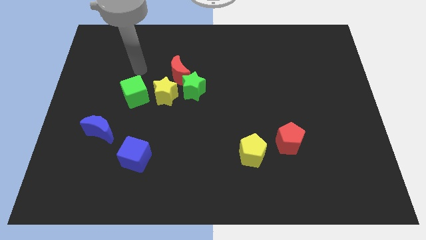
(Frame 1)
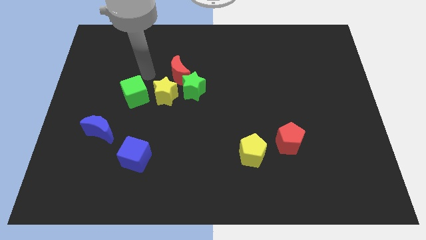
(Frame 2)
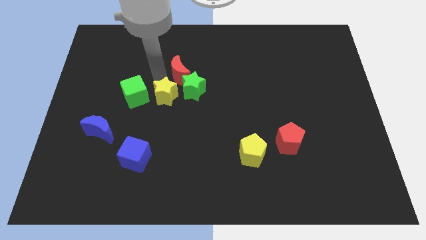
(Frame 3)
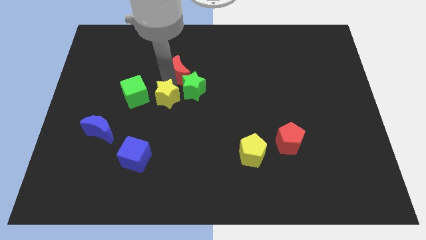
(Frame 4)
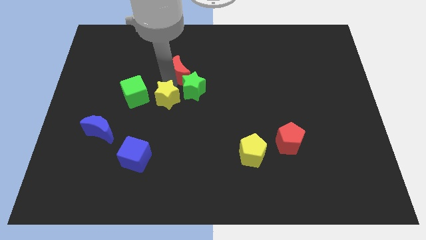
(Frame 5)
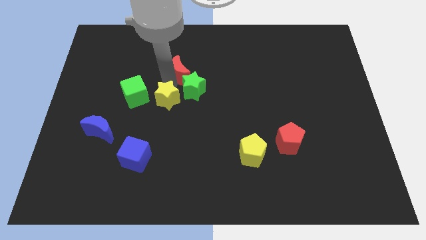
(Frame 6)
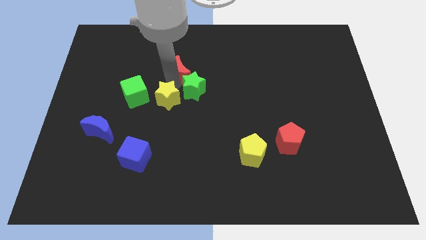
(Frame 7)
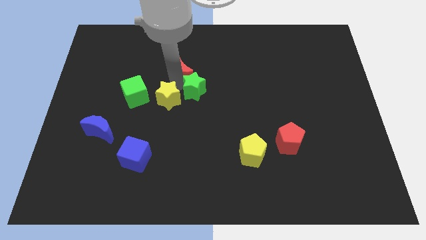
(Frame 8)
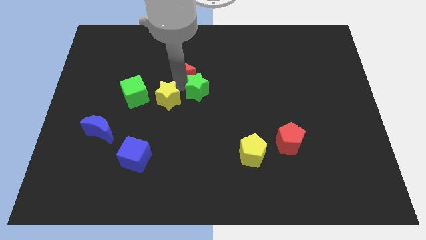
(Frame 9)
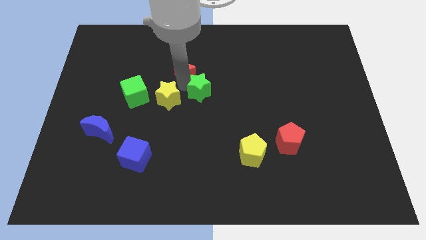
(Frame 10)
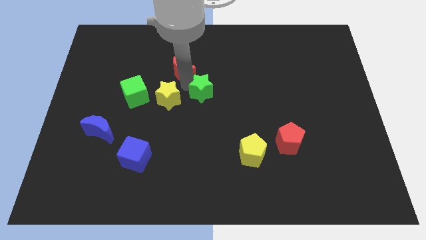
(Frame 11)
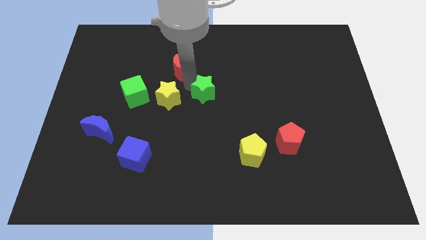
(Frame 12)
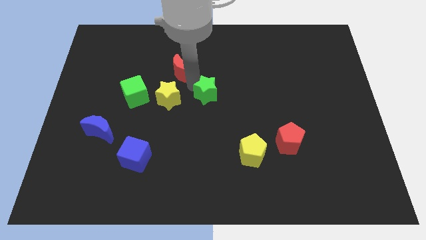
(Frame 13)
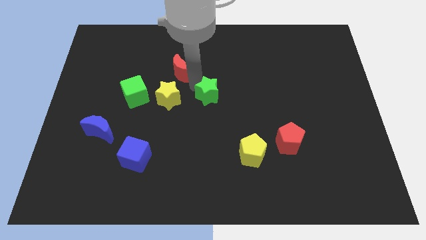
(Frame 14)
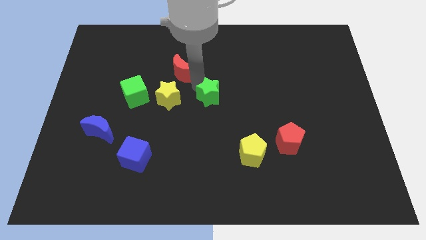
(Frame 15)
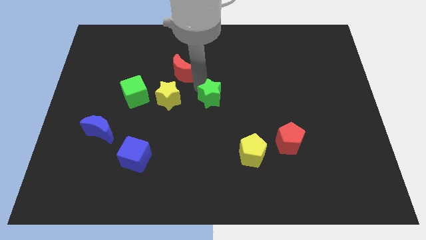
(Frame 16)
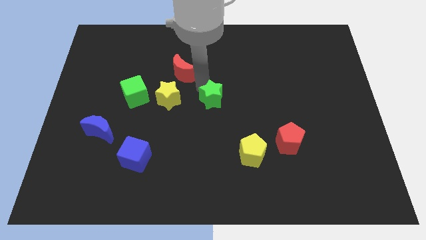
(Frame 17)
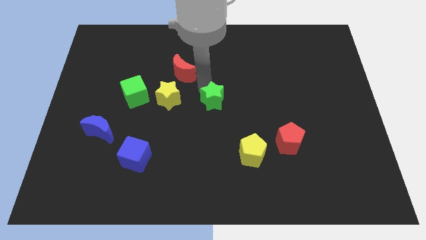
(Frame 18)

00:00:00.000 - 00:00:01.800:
pull the green star apart from the red moon and yellow star

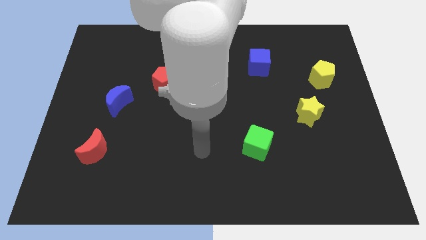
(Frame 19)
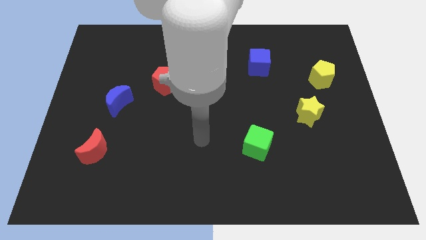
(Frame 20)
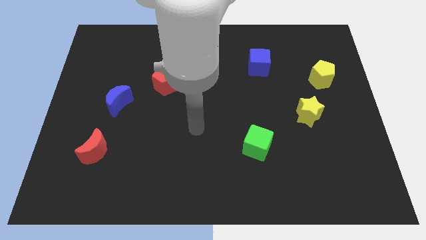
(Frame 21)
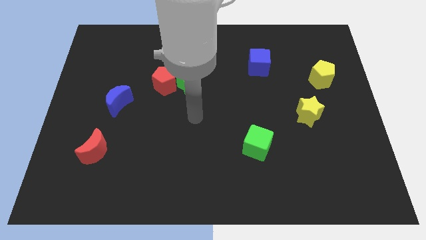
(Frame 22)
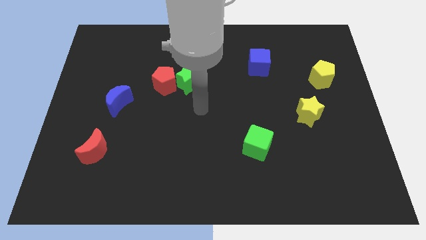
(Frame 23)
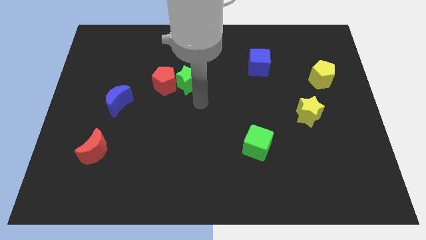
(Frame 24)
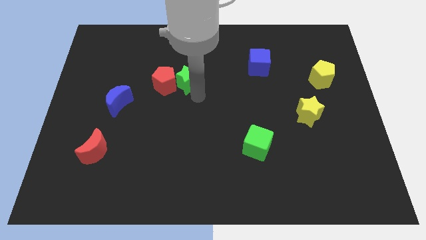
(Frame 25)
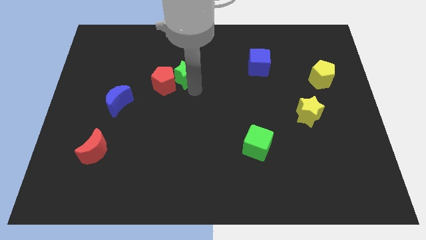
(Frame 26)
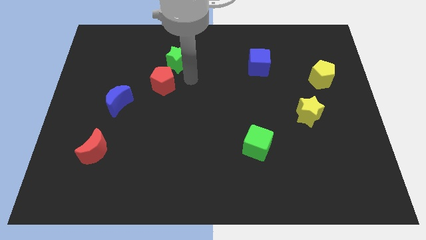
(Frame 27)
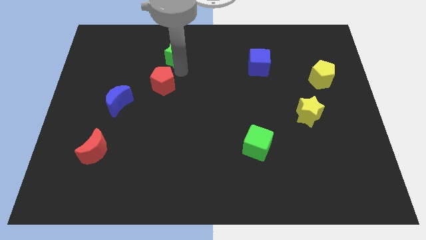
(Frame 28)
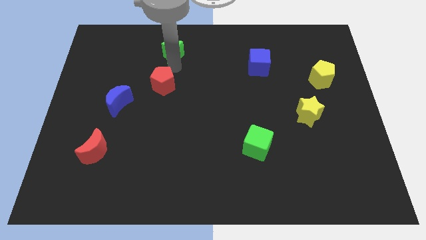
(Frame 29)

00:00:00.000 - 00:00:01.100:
separate the red pentagon from the green star

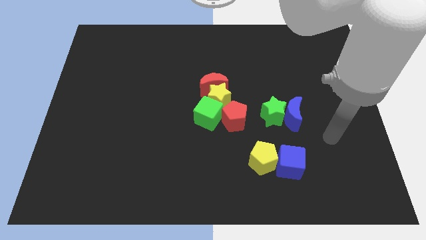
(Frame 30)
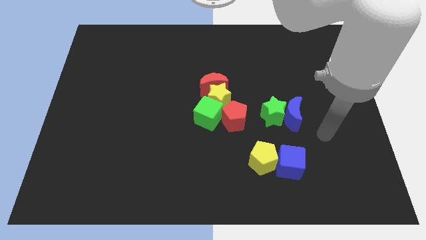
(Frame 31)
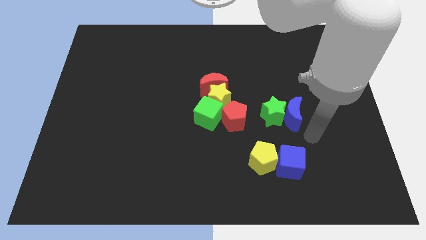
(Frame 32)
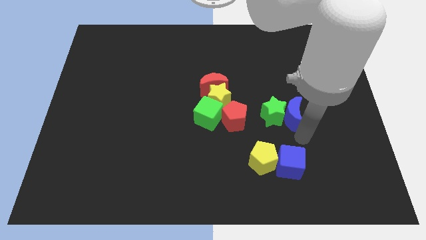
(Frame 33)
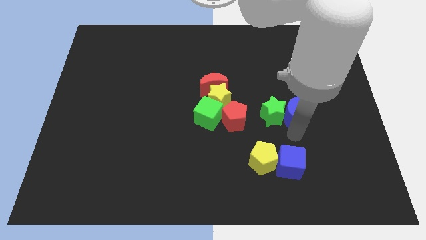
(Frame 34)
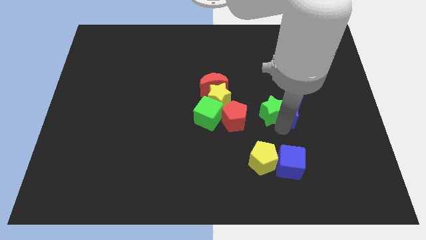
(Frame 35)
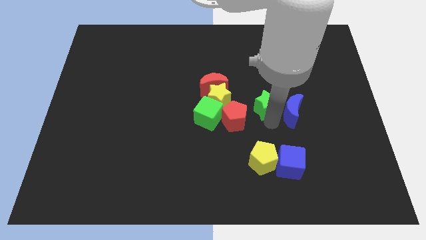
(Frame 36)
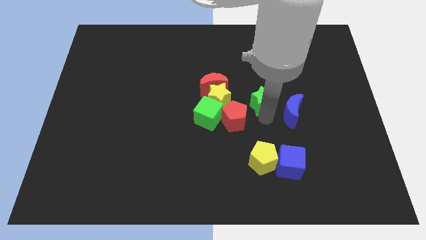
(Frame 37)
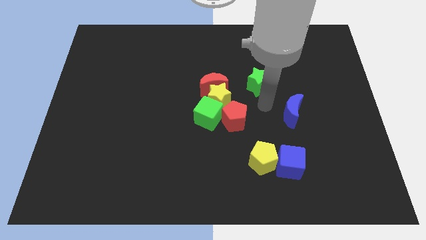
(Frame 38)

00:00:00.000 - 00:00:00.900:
pull the blue moon apart from the green star

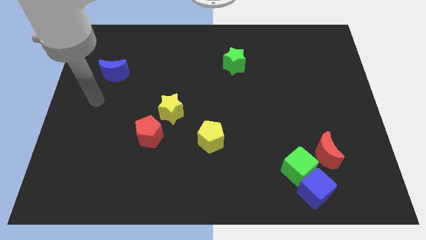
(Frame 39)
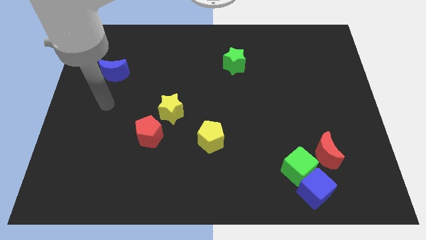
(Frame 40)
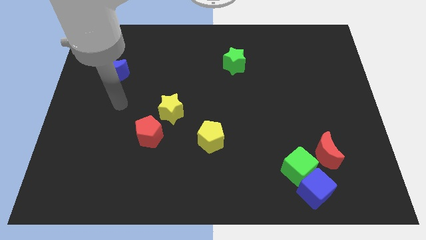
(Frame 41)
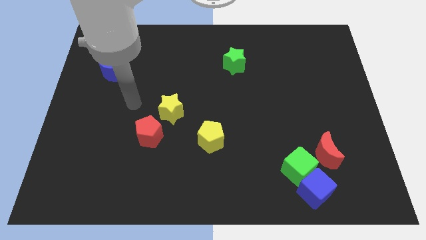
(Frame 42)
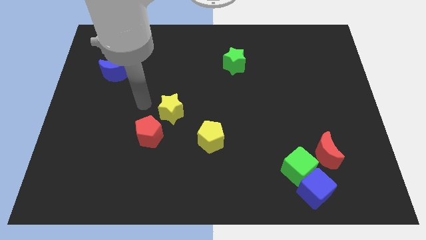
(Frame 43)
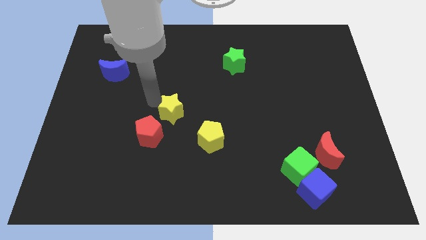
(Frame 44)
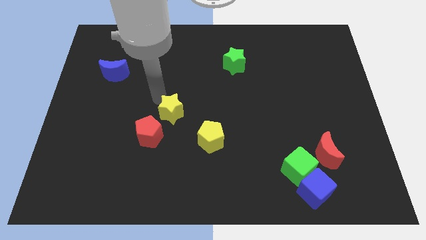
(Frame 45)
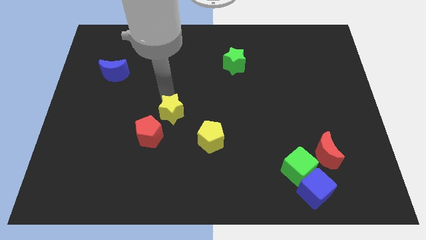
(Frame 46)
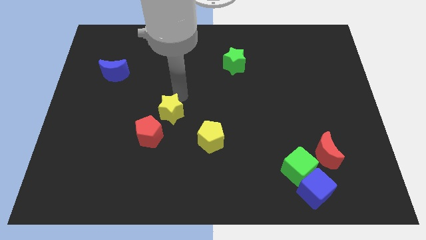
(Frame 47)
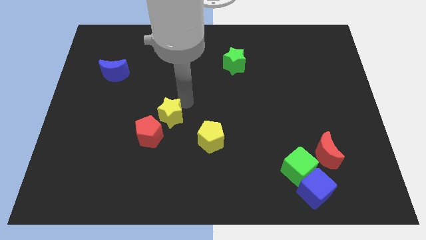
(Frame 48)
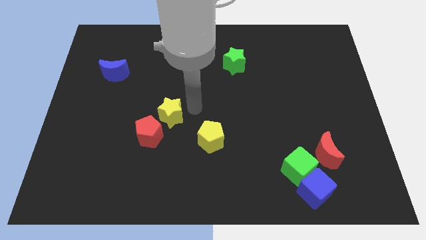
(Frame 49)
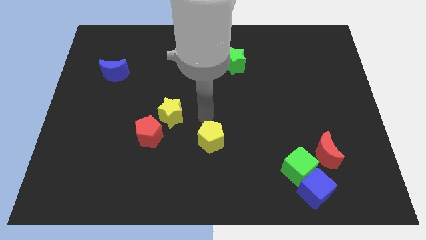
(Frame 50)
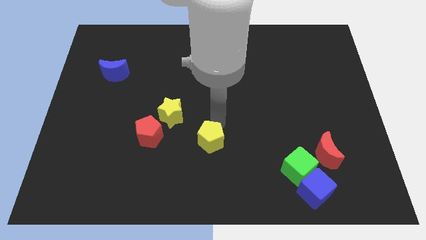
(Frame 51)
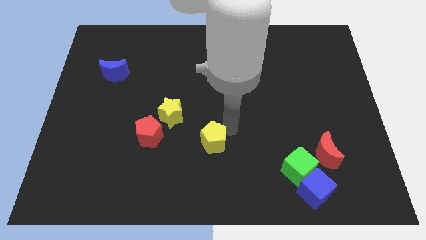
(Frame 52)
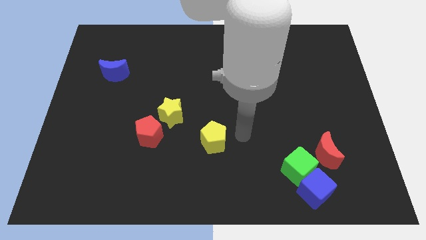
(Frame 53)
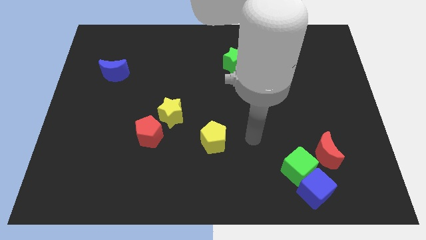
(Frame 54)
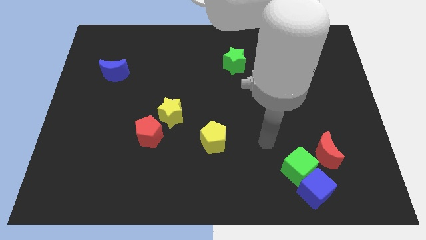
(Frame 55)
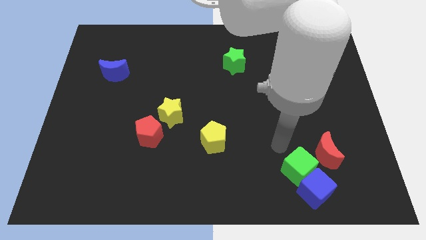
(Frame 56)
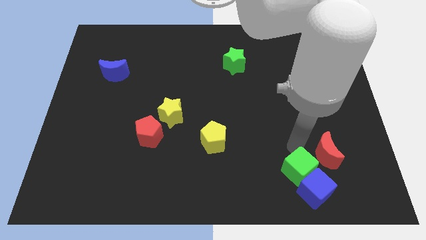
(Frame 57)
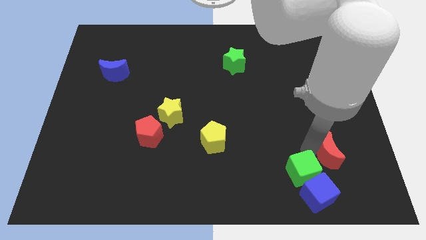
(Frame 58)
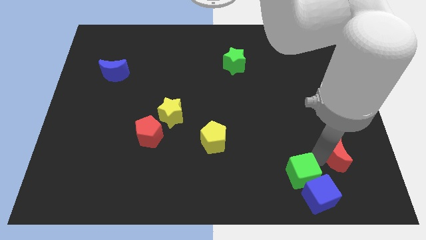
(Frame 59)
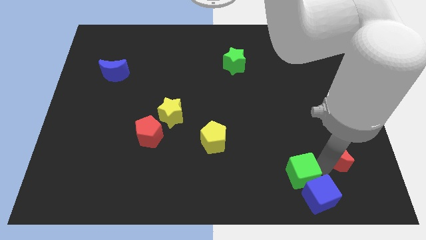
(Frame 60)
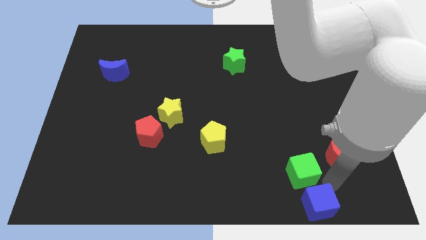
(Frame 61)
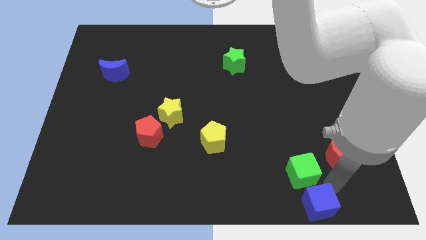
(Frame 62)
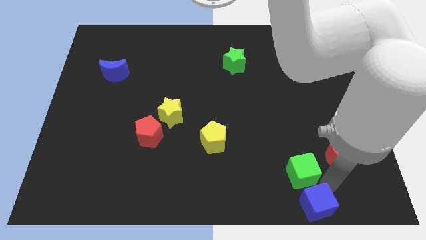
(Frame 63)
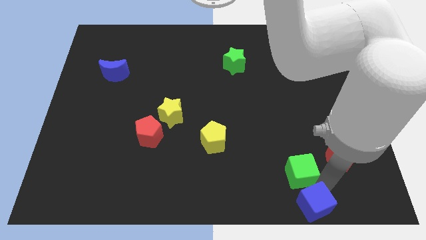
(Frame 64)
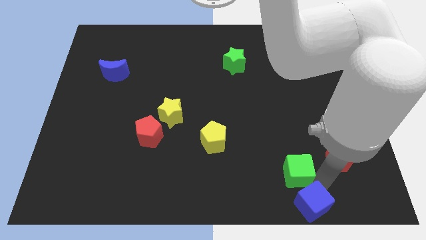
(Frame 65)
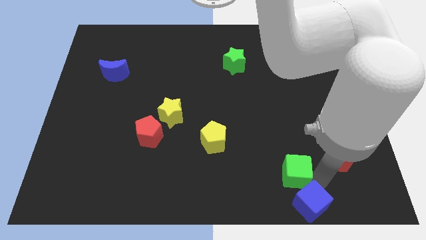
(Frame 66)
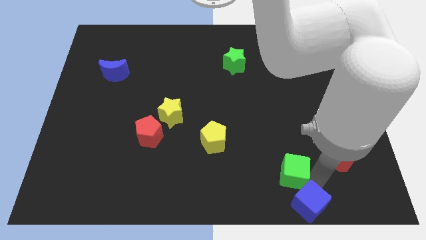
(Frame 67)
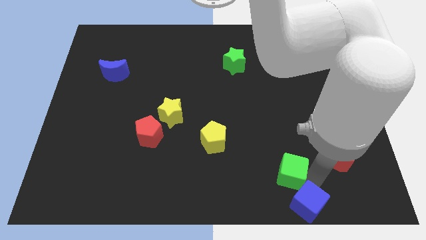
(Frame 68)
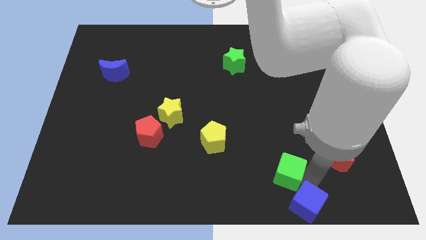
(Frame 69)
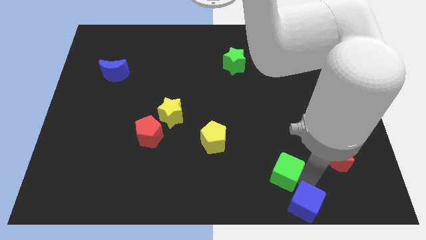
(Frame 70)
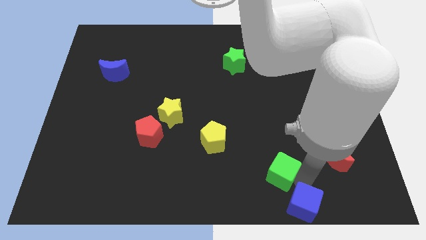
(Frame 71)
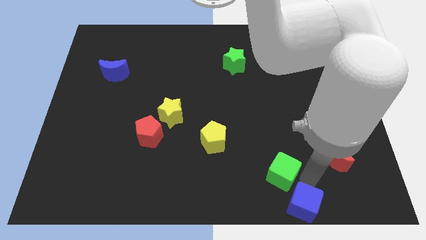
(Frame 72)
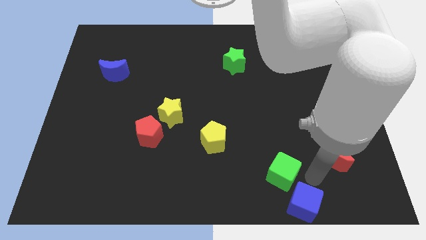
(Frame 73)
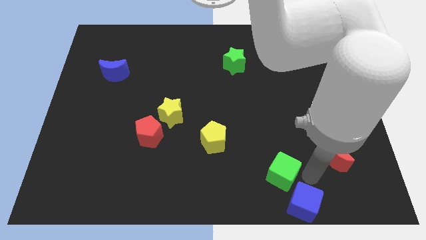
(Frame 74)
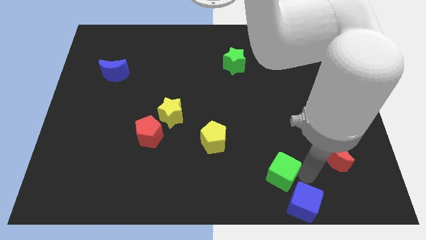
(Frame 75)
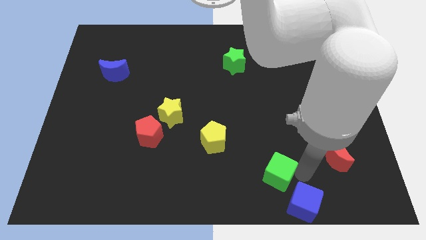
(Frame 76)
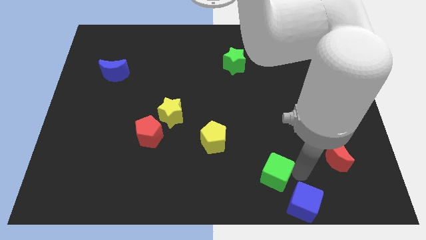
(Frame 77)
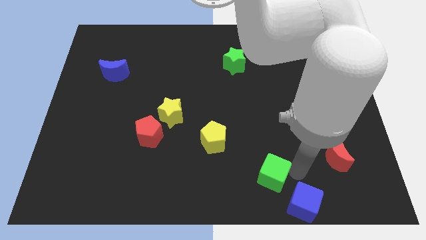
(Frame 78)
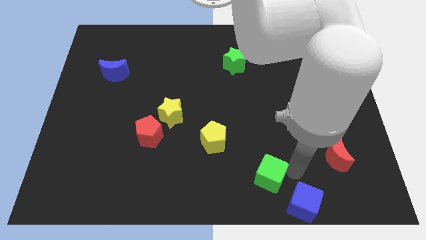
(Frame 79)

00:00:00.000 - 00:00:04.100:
move the green cube away from the blue cube and red moon

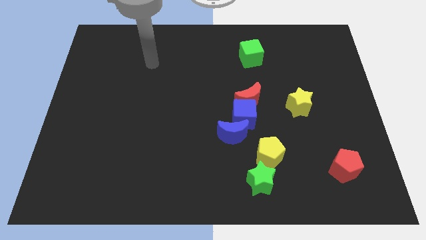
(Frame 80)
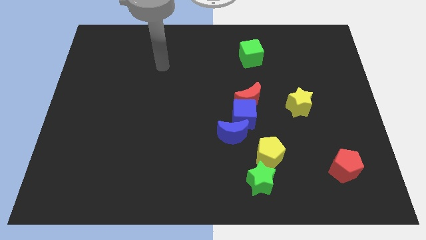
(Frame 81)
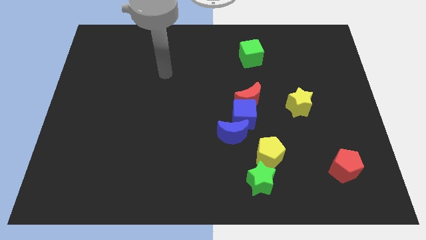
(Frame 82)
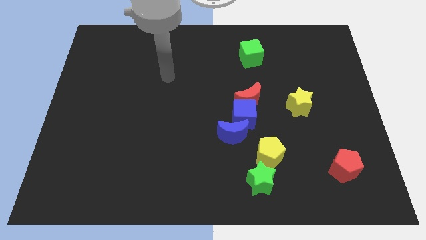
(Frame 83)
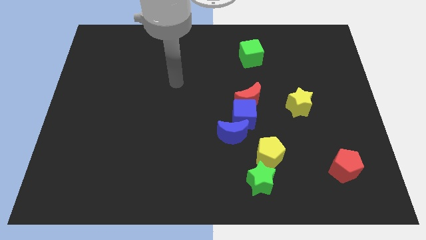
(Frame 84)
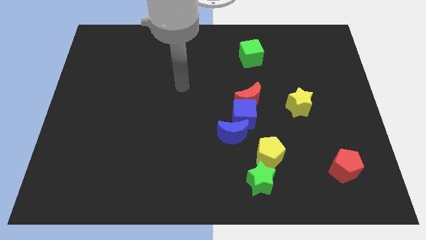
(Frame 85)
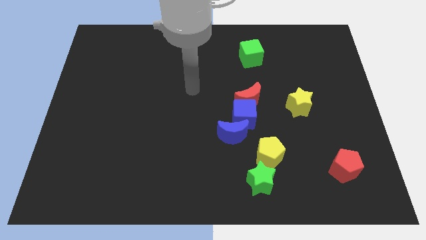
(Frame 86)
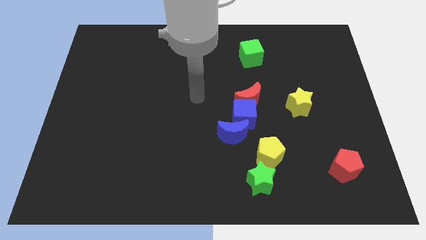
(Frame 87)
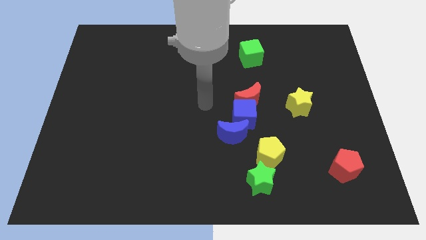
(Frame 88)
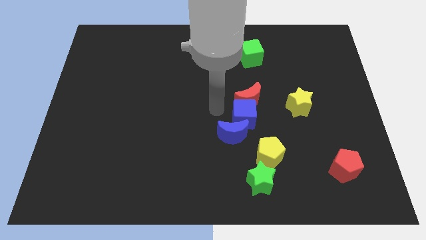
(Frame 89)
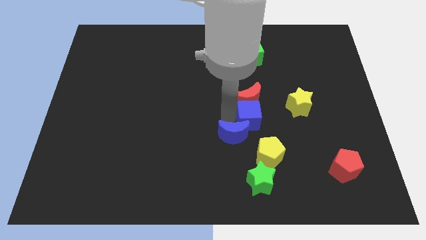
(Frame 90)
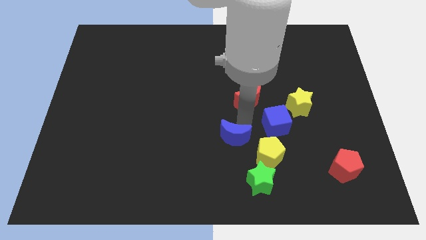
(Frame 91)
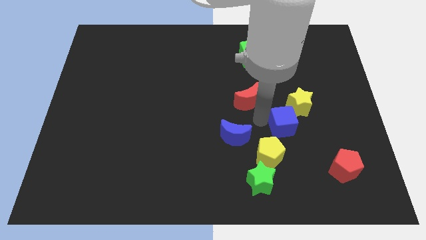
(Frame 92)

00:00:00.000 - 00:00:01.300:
separate the red moon from the blue cube

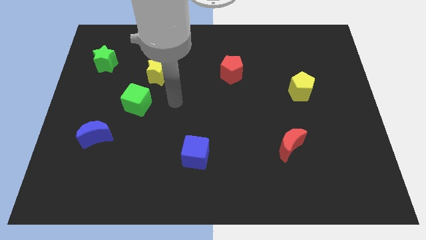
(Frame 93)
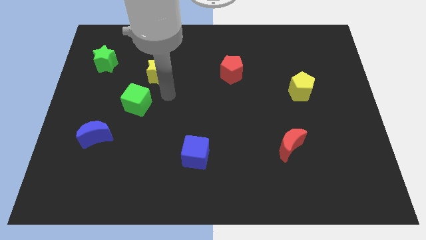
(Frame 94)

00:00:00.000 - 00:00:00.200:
separate the green cube from the yellow star
